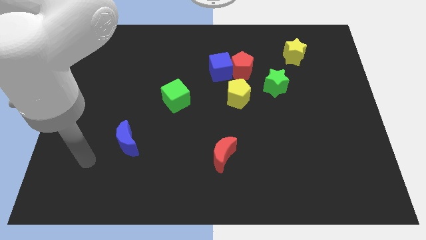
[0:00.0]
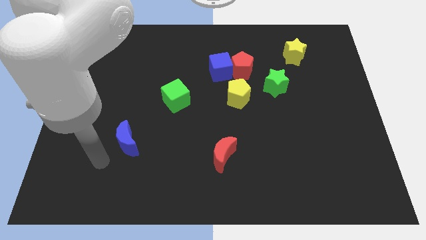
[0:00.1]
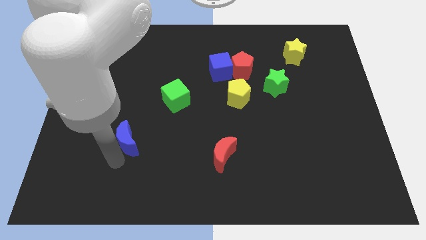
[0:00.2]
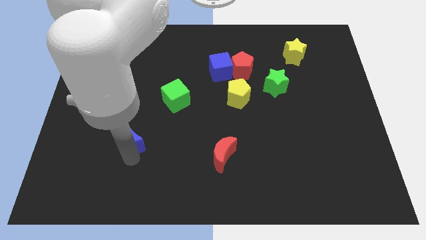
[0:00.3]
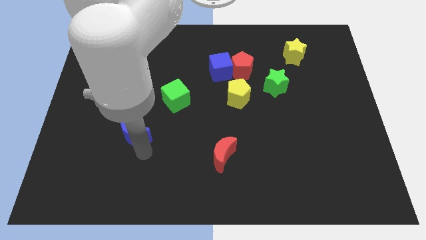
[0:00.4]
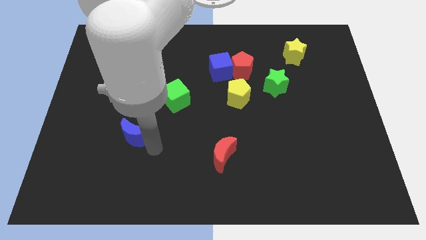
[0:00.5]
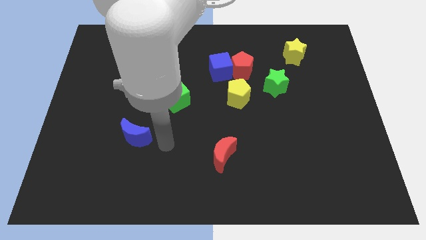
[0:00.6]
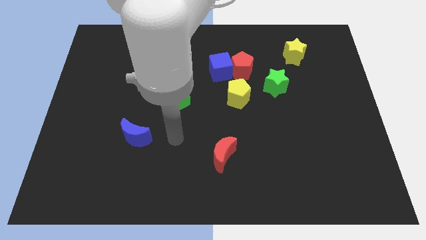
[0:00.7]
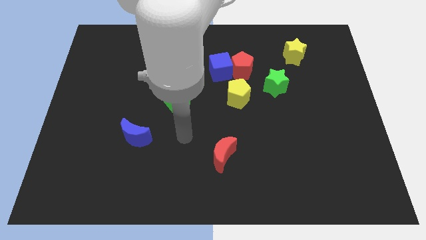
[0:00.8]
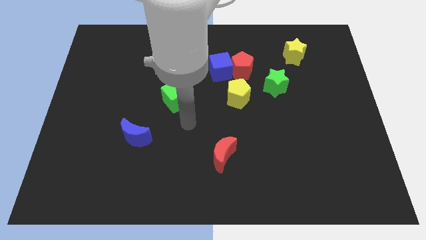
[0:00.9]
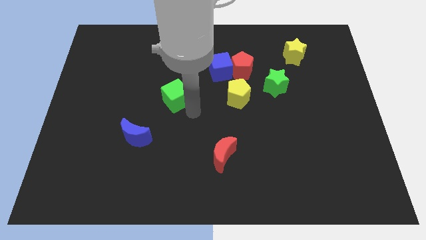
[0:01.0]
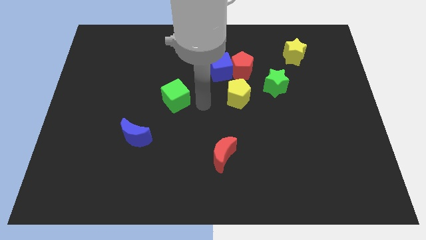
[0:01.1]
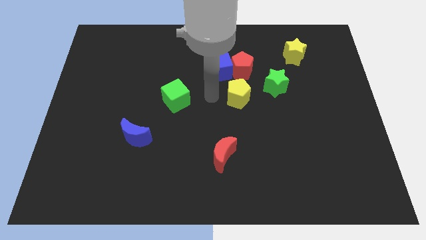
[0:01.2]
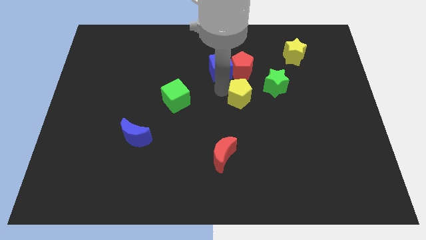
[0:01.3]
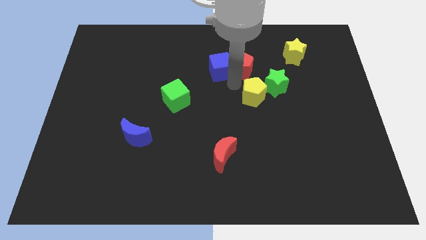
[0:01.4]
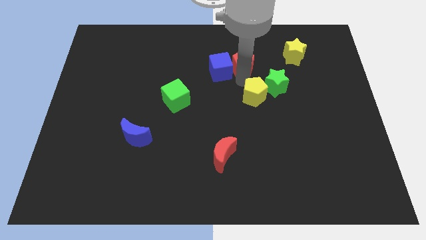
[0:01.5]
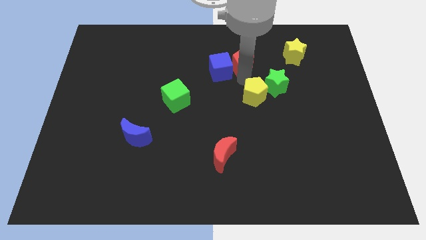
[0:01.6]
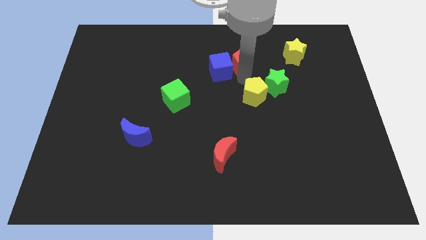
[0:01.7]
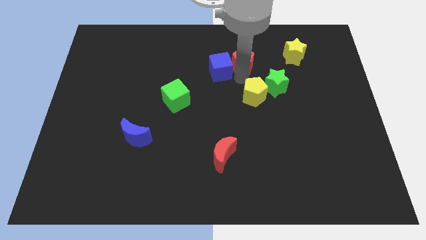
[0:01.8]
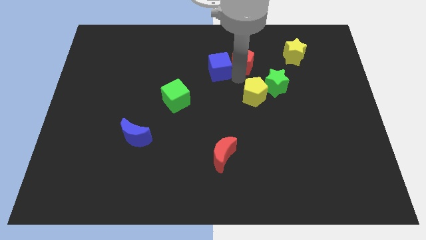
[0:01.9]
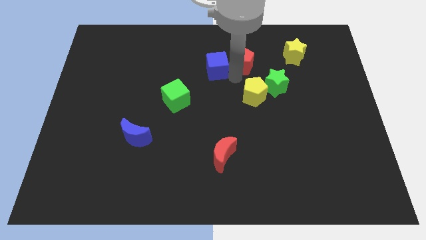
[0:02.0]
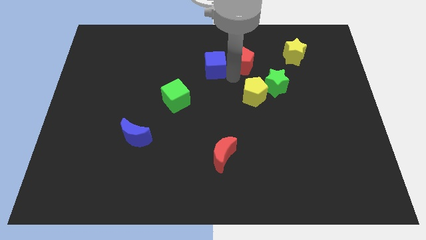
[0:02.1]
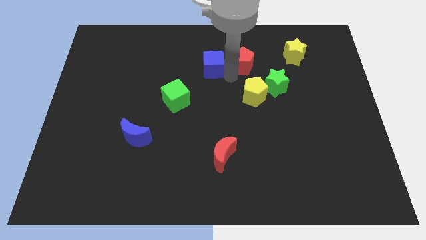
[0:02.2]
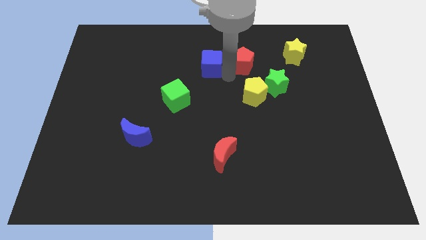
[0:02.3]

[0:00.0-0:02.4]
pull the blue cube apart from the red pentagon and yellow pentagon

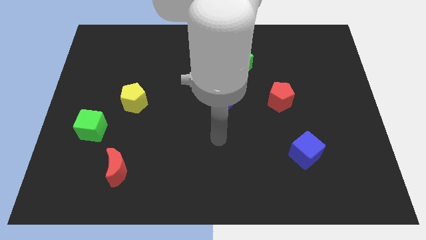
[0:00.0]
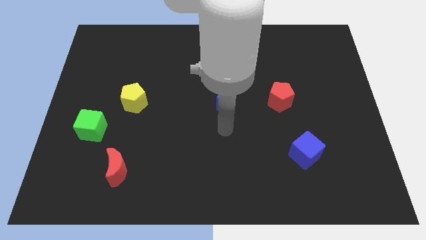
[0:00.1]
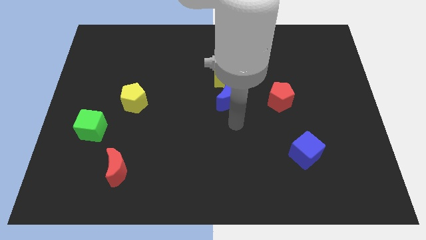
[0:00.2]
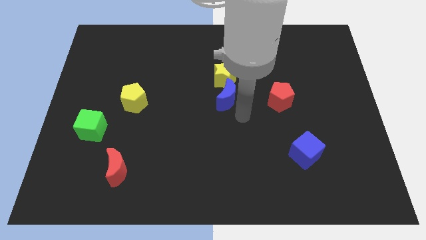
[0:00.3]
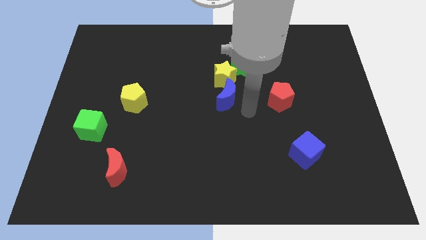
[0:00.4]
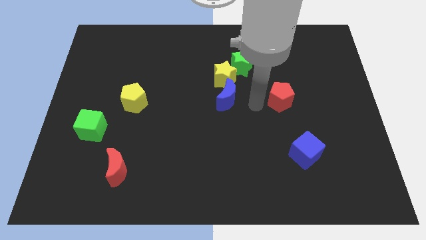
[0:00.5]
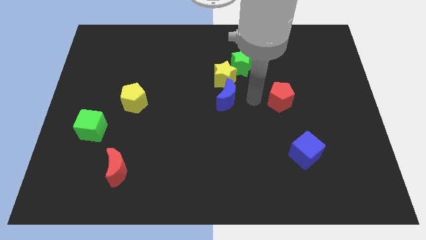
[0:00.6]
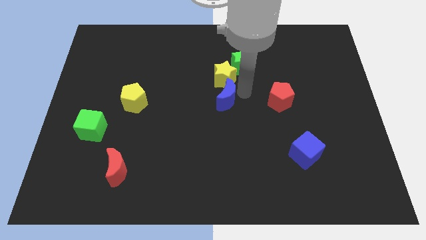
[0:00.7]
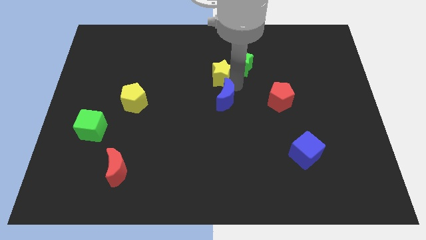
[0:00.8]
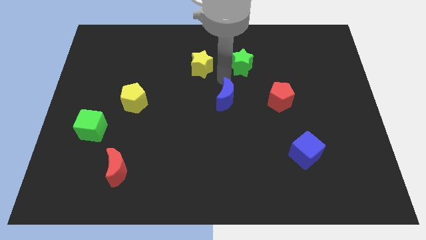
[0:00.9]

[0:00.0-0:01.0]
separate the blue moon from the yellow star

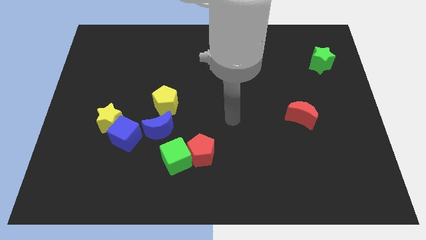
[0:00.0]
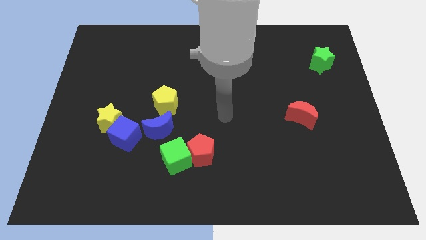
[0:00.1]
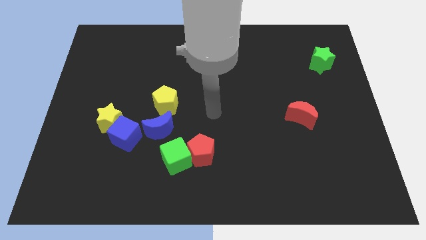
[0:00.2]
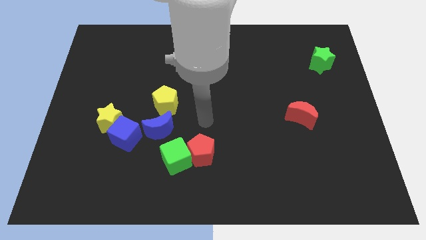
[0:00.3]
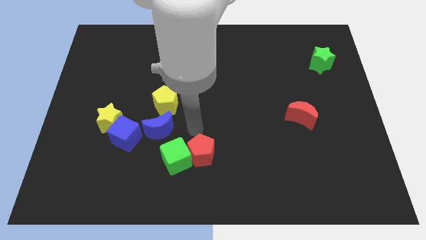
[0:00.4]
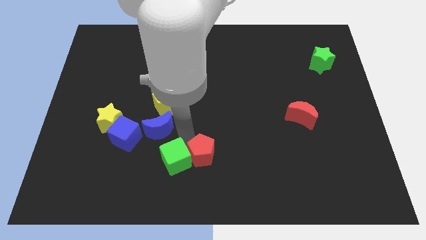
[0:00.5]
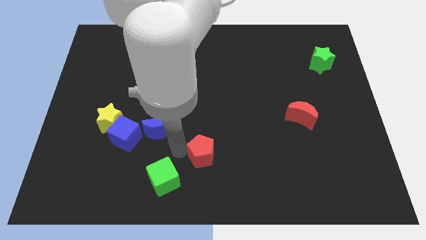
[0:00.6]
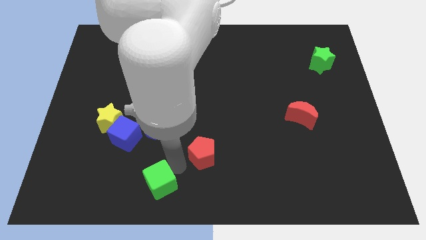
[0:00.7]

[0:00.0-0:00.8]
move the red pentagon away from the green cube

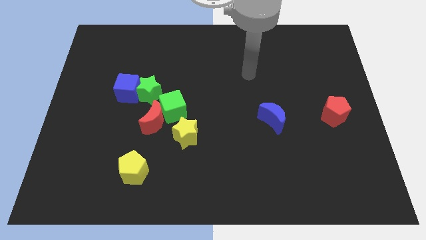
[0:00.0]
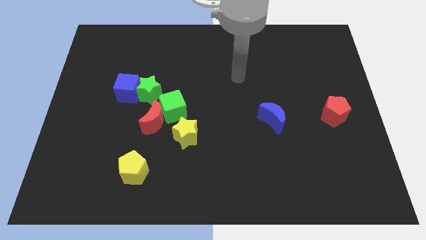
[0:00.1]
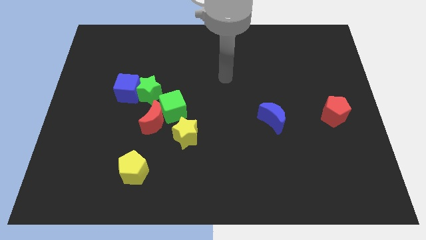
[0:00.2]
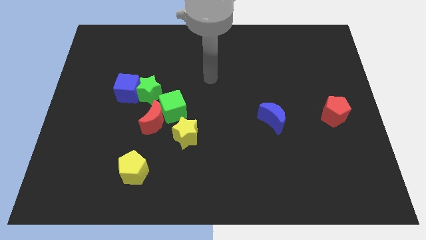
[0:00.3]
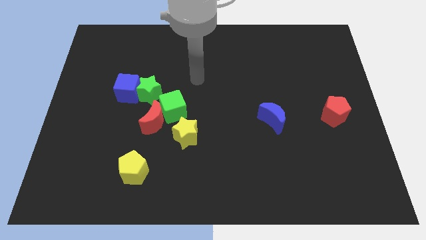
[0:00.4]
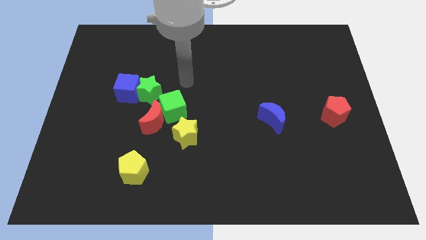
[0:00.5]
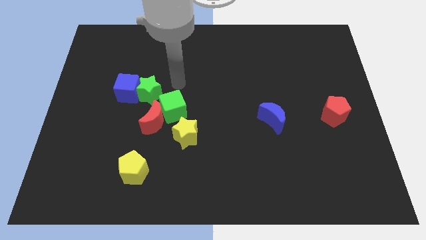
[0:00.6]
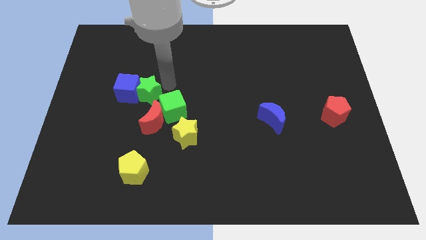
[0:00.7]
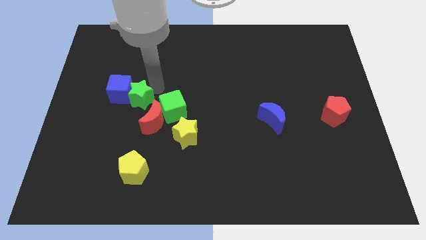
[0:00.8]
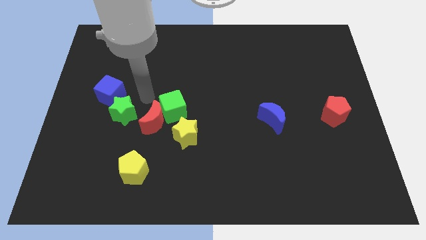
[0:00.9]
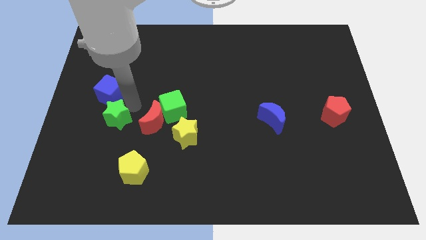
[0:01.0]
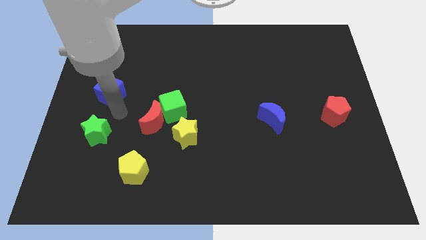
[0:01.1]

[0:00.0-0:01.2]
move the blue cube away from the green star

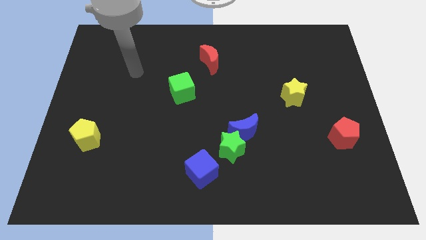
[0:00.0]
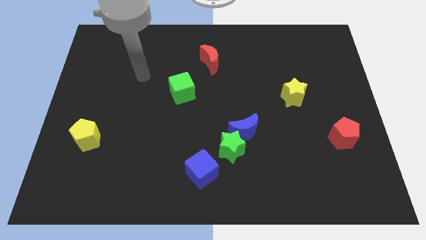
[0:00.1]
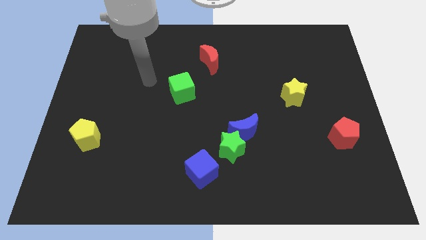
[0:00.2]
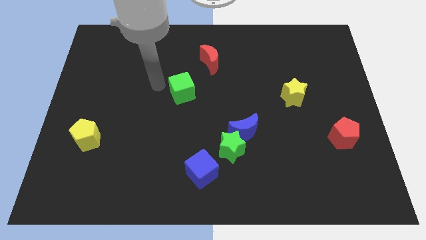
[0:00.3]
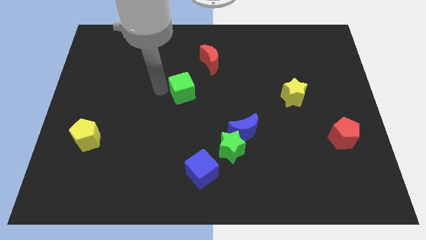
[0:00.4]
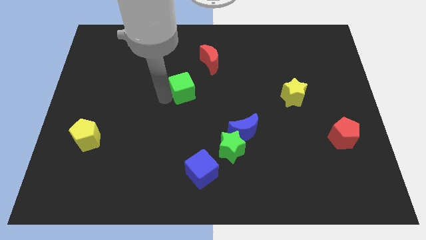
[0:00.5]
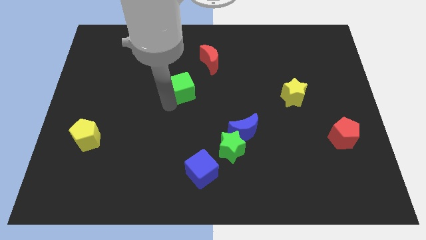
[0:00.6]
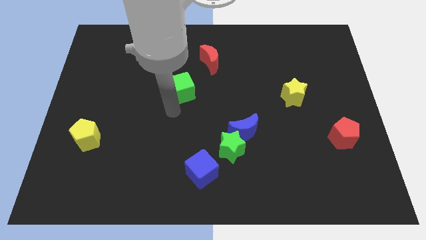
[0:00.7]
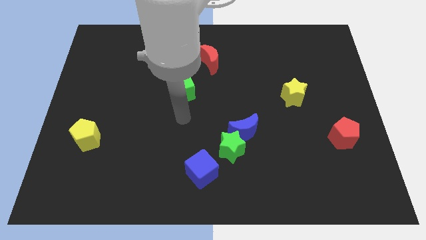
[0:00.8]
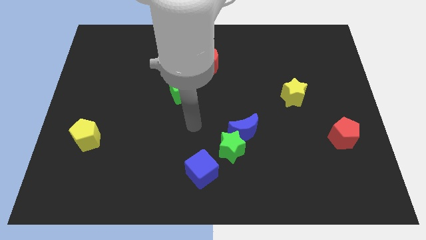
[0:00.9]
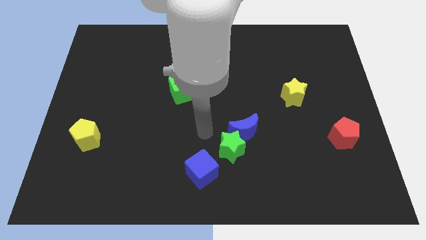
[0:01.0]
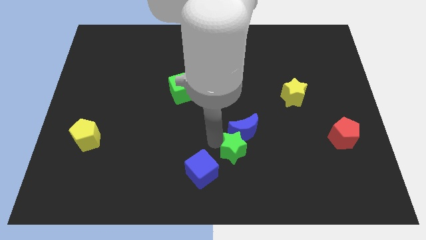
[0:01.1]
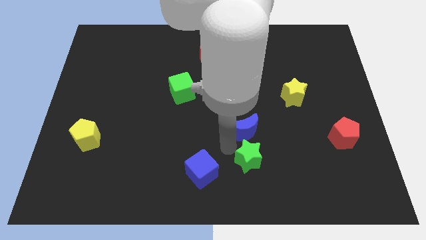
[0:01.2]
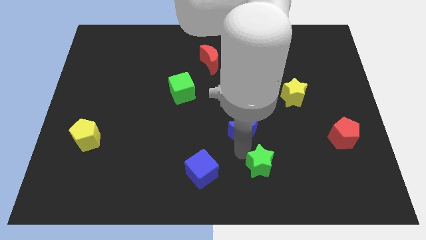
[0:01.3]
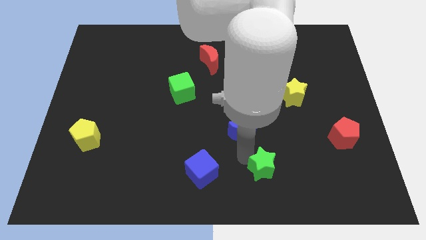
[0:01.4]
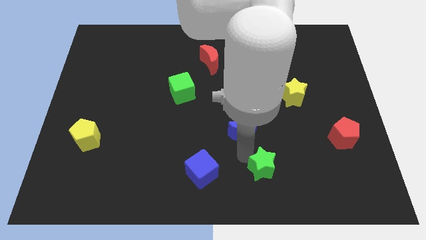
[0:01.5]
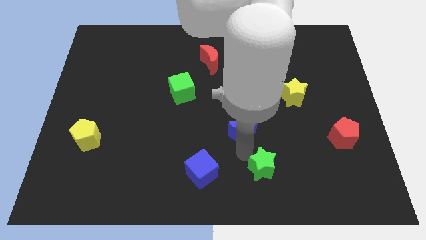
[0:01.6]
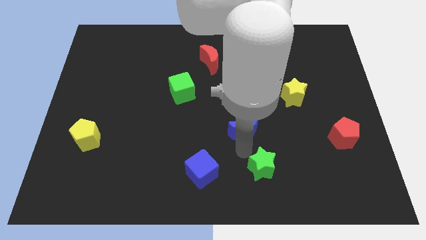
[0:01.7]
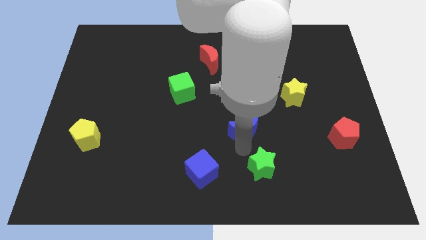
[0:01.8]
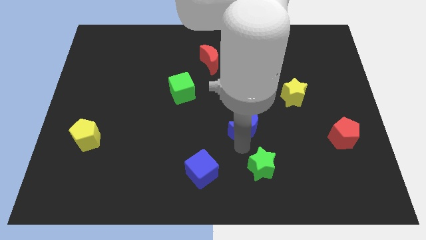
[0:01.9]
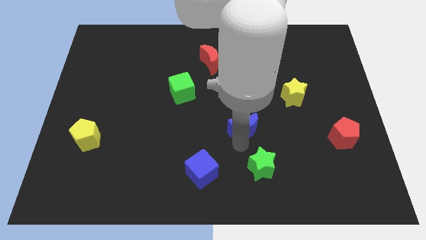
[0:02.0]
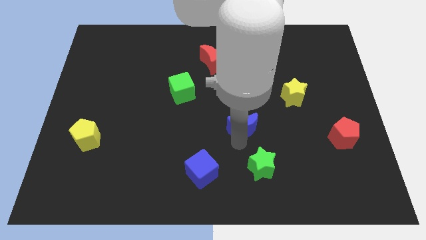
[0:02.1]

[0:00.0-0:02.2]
pull the blue moon apart from the green star

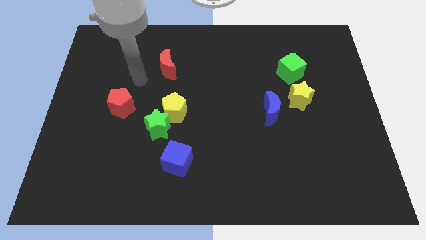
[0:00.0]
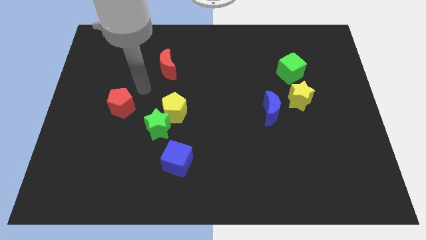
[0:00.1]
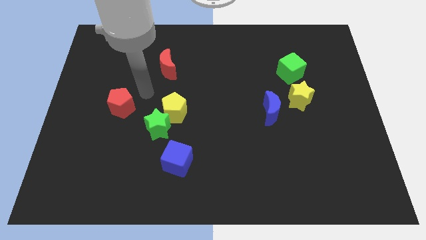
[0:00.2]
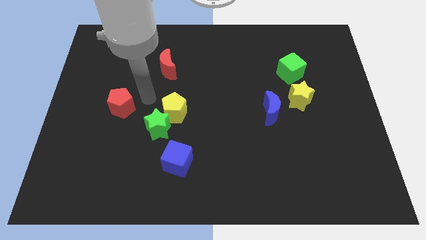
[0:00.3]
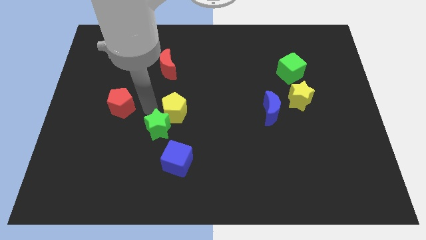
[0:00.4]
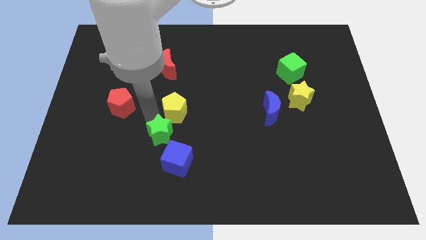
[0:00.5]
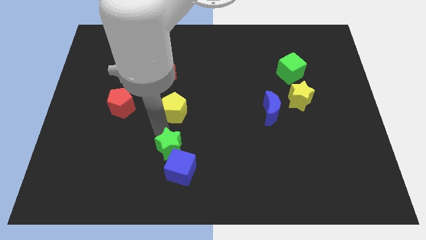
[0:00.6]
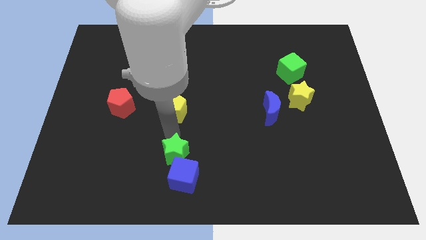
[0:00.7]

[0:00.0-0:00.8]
separate the yellow pentagon from the green star

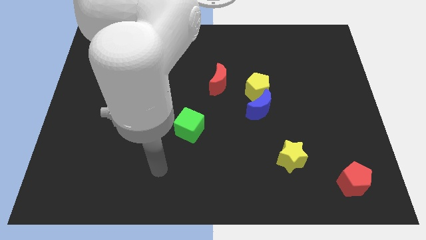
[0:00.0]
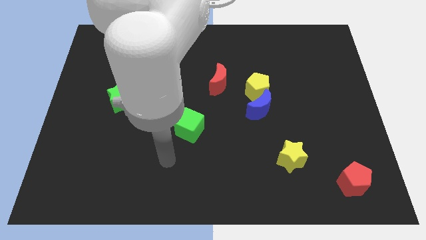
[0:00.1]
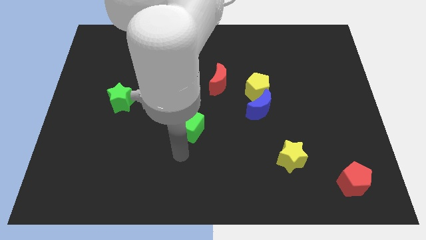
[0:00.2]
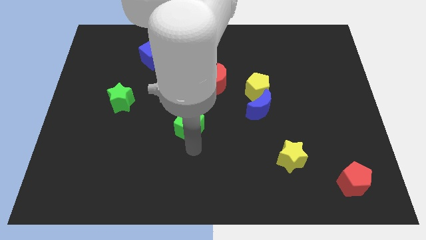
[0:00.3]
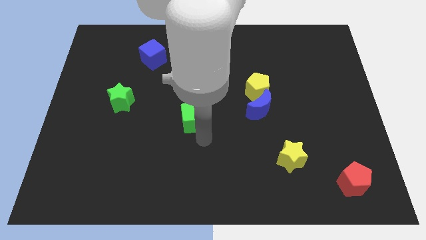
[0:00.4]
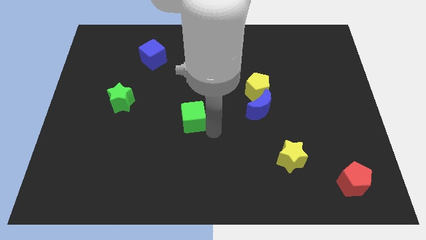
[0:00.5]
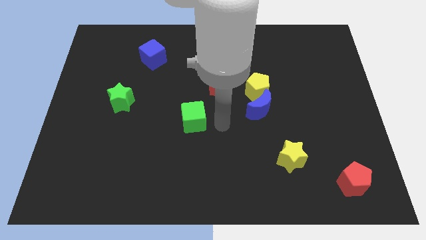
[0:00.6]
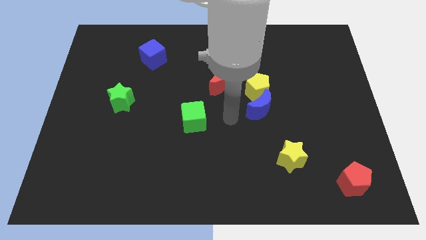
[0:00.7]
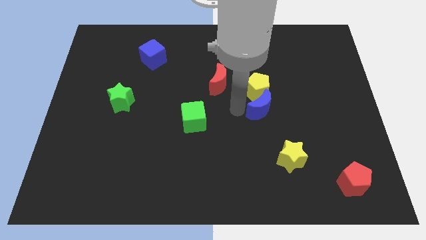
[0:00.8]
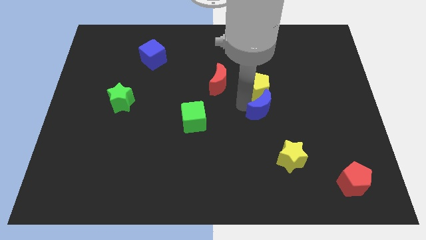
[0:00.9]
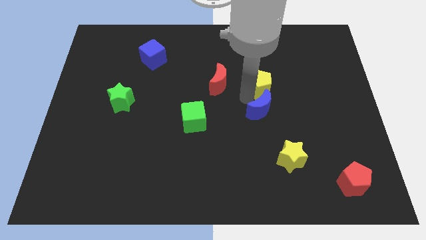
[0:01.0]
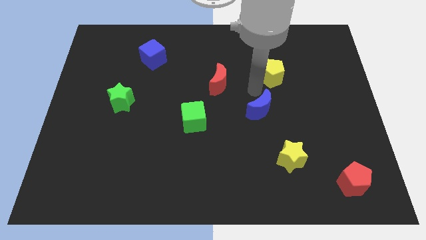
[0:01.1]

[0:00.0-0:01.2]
pull the blue moon apart from the yellow pentagon
